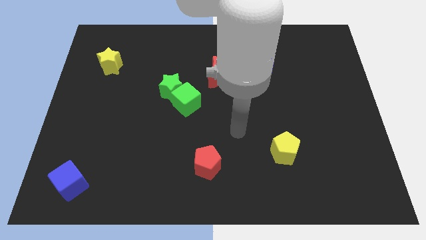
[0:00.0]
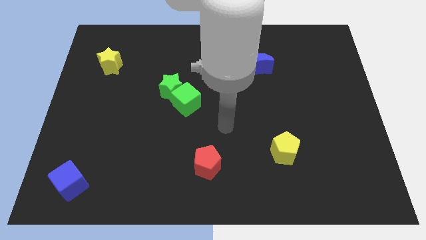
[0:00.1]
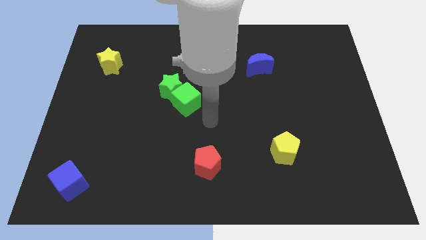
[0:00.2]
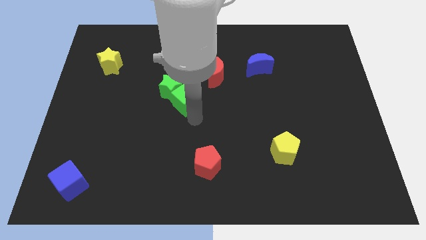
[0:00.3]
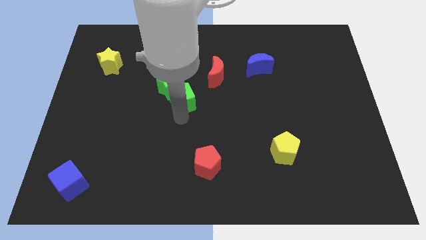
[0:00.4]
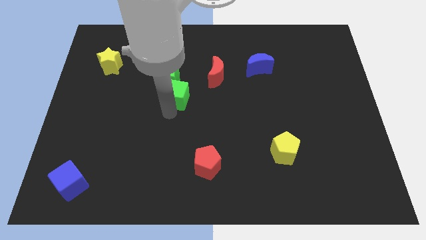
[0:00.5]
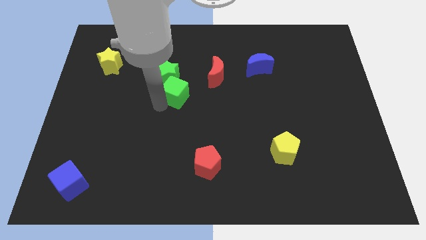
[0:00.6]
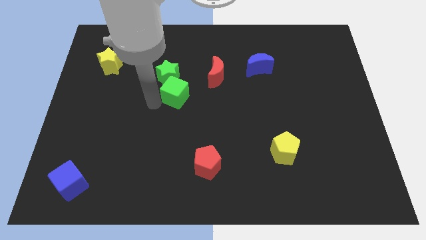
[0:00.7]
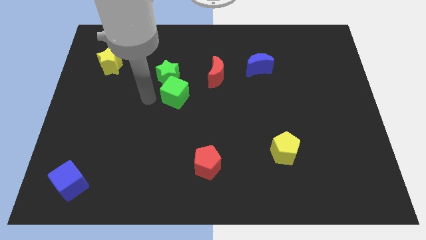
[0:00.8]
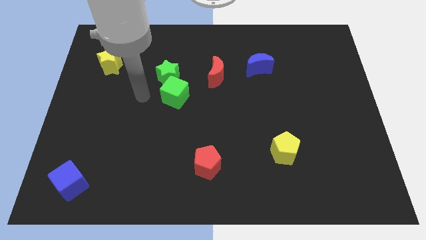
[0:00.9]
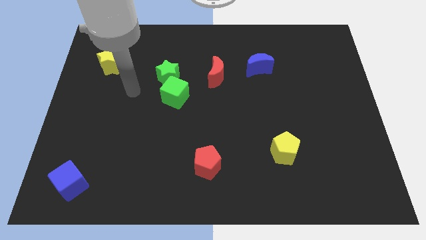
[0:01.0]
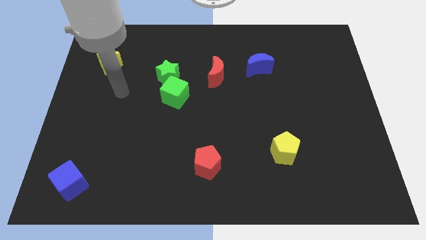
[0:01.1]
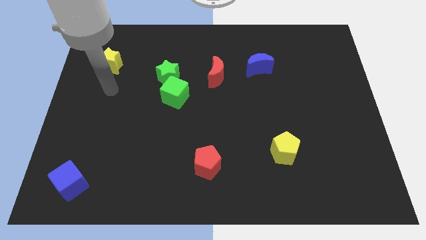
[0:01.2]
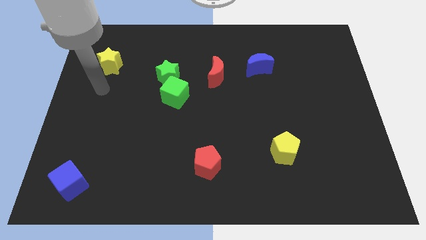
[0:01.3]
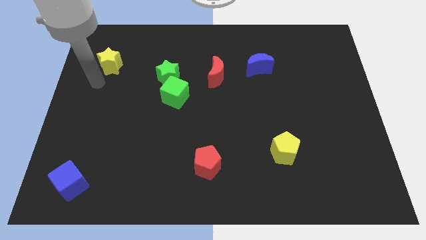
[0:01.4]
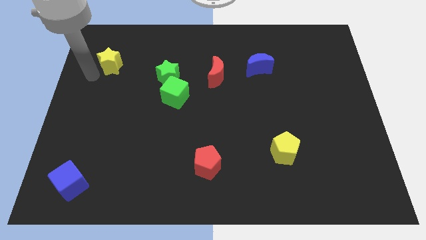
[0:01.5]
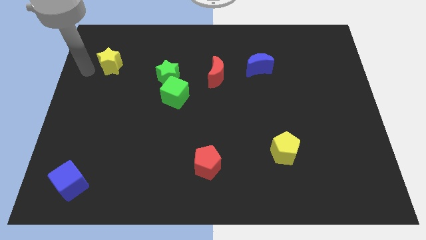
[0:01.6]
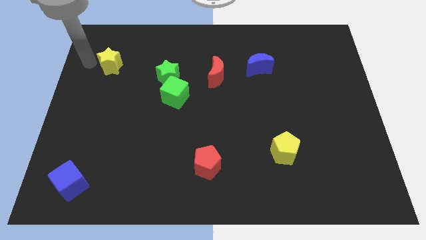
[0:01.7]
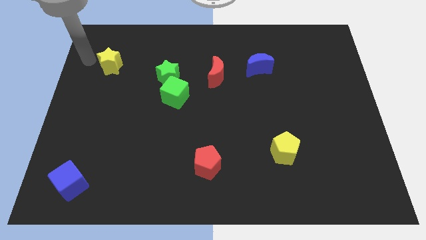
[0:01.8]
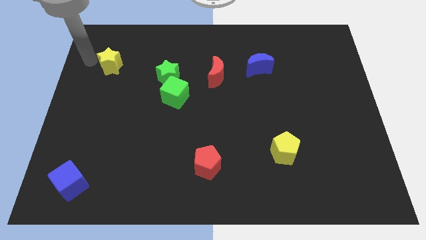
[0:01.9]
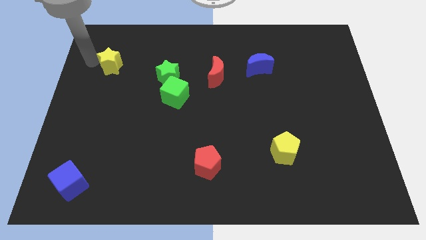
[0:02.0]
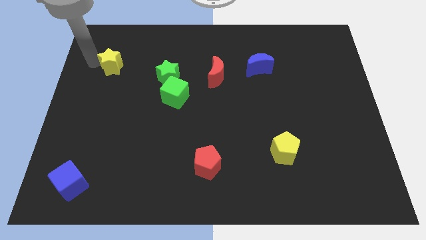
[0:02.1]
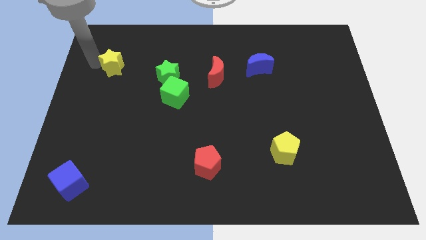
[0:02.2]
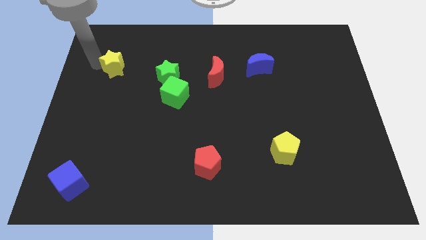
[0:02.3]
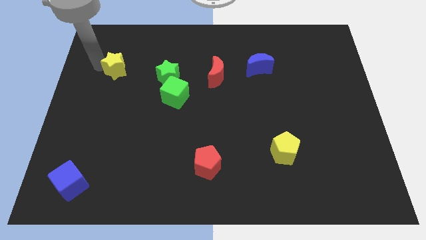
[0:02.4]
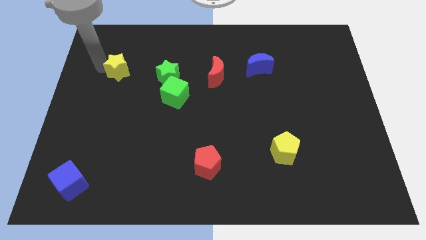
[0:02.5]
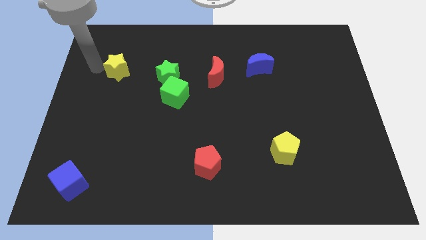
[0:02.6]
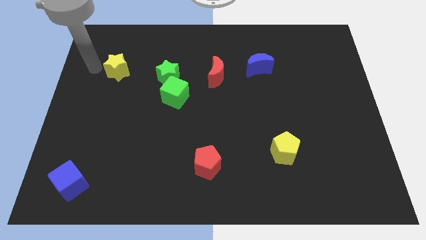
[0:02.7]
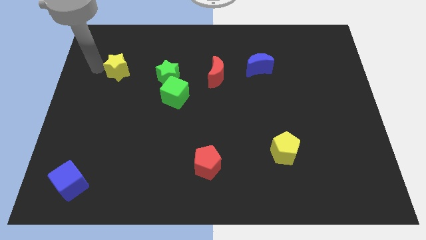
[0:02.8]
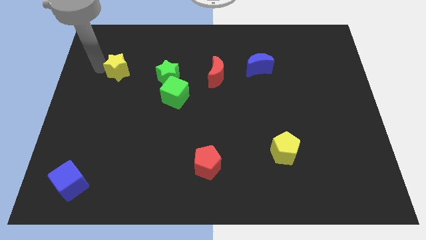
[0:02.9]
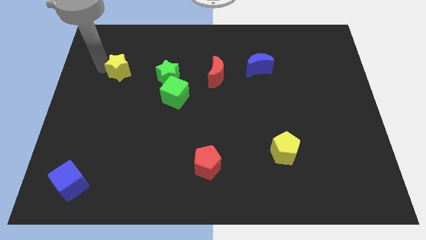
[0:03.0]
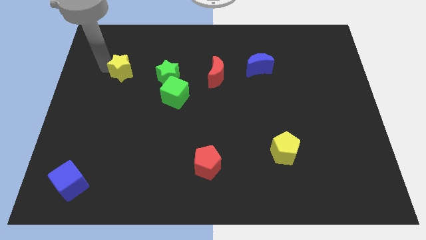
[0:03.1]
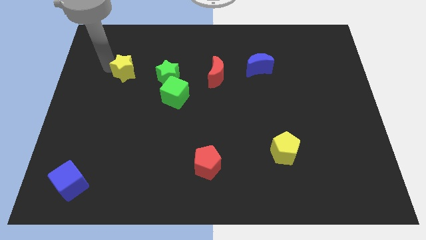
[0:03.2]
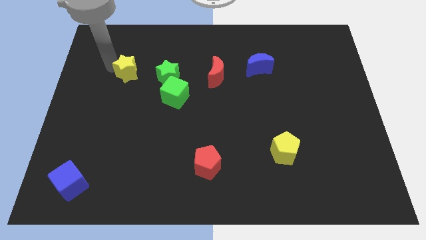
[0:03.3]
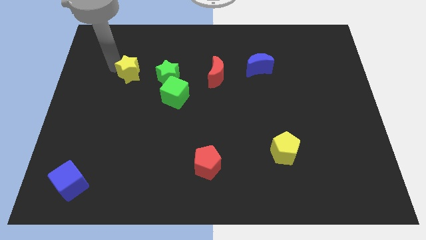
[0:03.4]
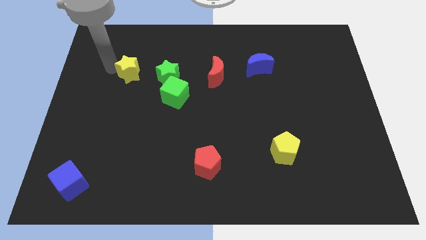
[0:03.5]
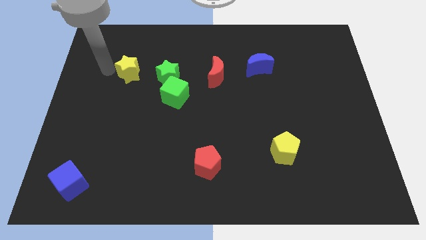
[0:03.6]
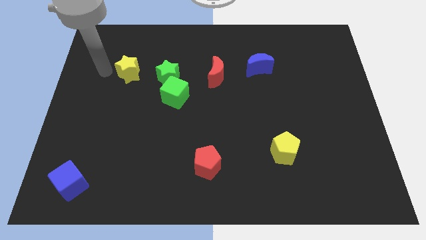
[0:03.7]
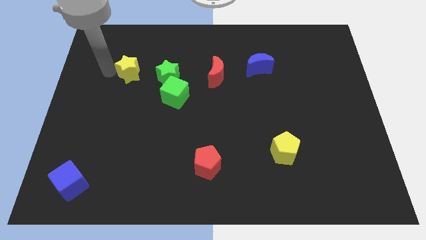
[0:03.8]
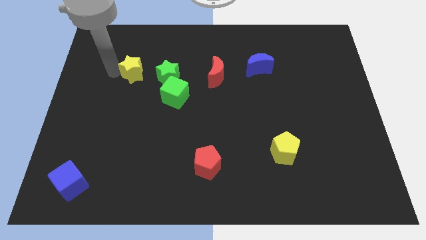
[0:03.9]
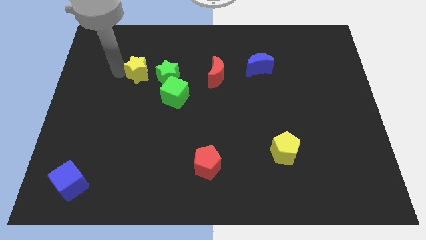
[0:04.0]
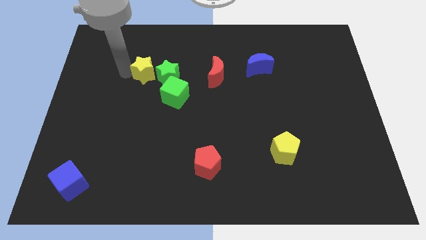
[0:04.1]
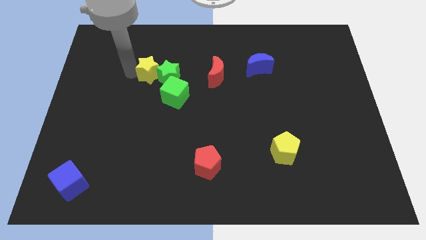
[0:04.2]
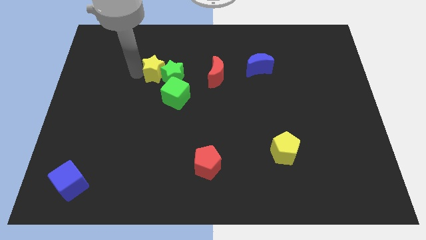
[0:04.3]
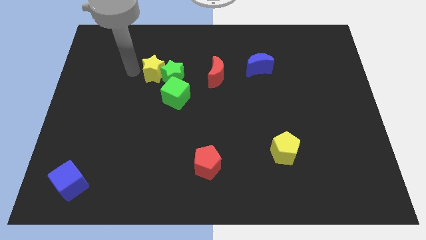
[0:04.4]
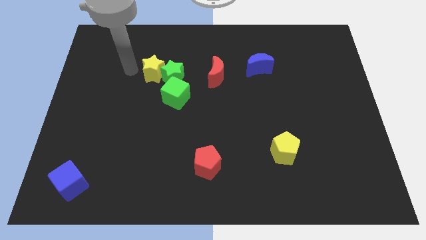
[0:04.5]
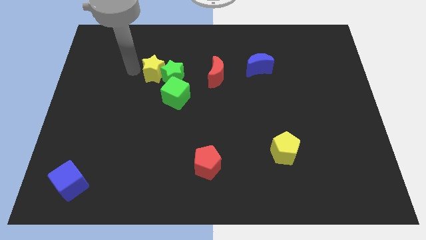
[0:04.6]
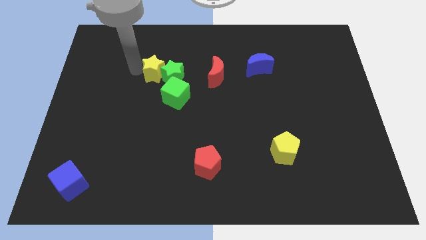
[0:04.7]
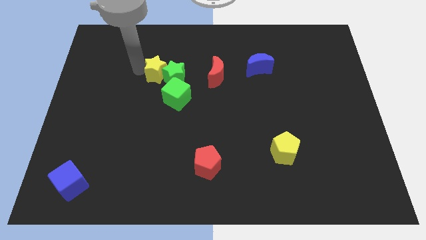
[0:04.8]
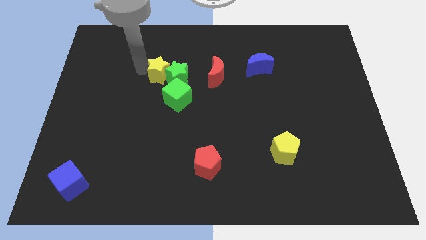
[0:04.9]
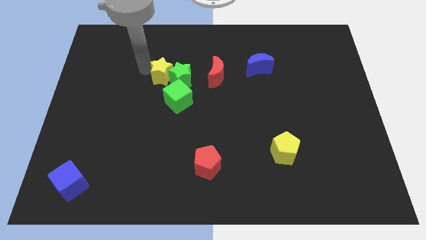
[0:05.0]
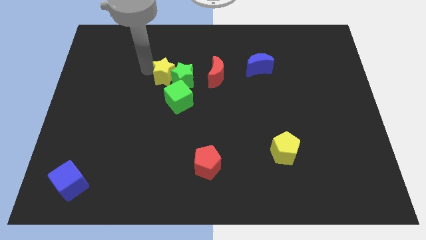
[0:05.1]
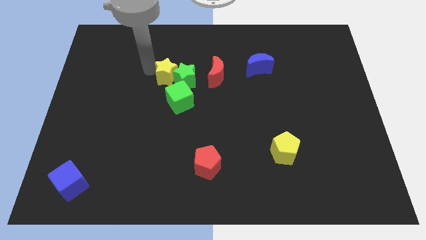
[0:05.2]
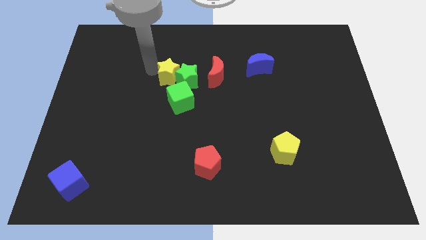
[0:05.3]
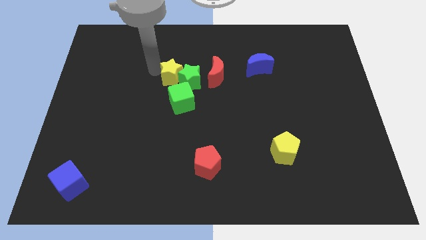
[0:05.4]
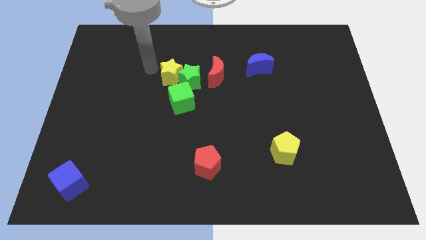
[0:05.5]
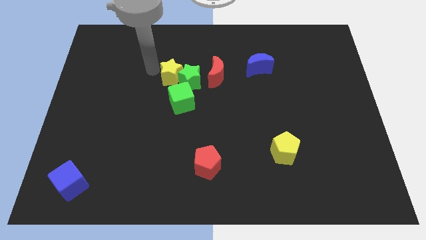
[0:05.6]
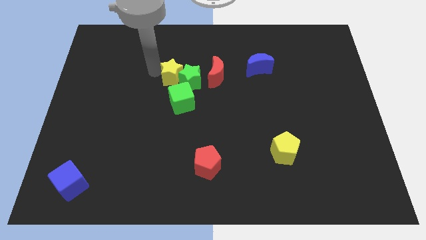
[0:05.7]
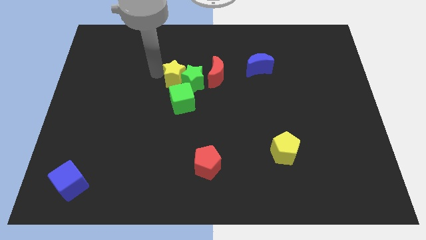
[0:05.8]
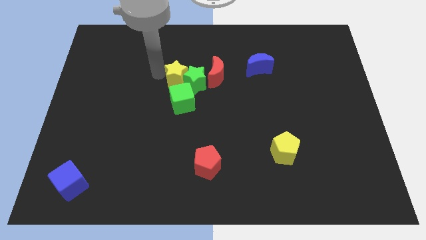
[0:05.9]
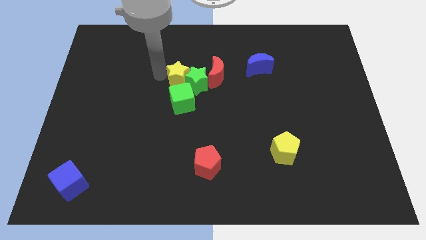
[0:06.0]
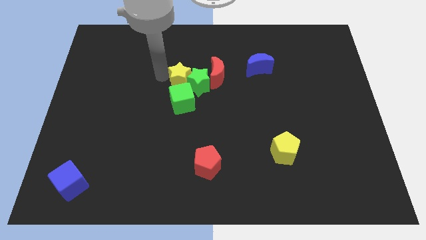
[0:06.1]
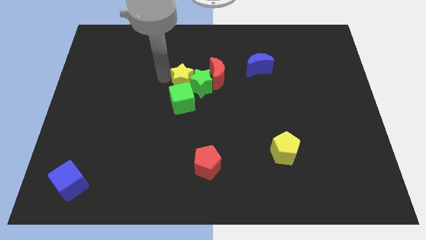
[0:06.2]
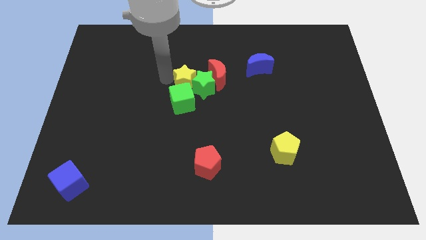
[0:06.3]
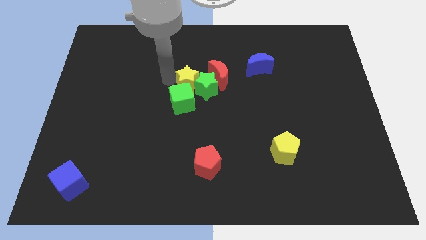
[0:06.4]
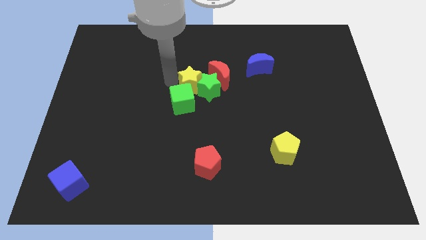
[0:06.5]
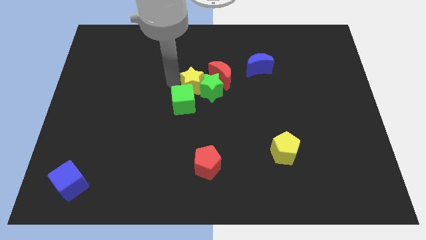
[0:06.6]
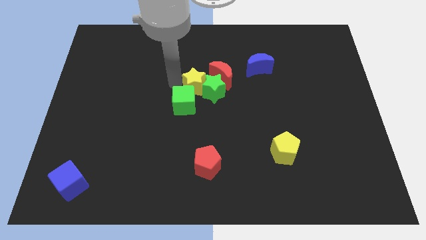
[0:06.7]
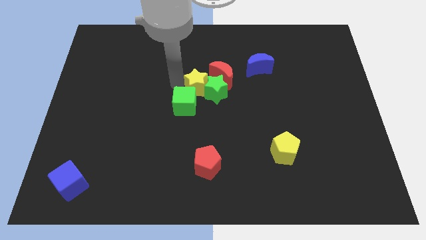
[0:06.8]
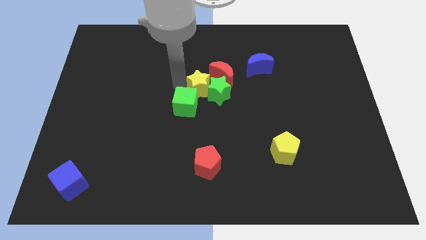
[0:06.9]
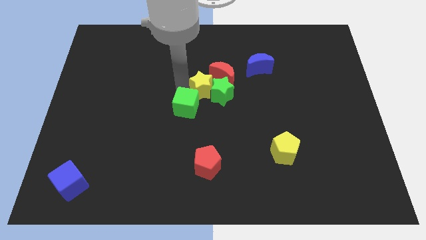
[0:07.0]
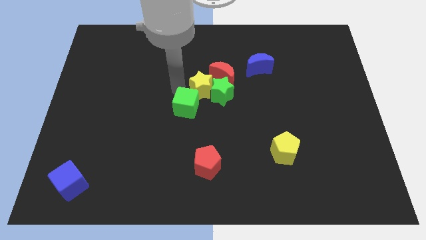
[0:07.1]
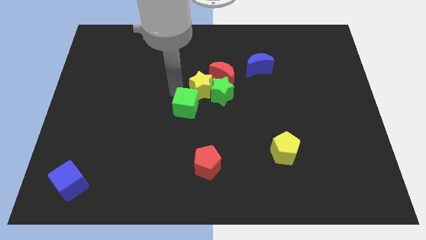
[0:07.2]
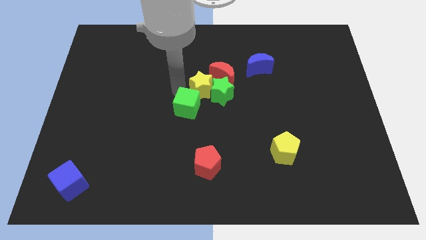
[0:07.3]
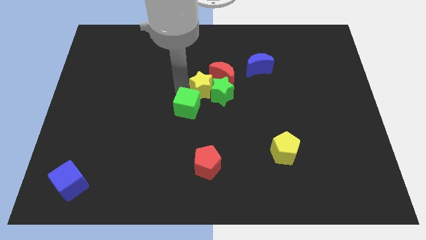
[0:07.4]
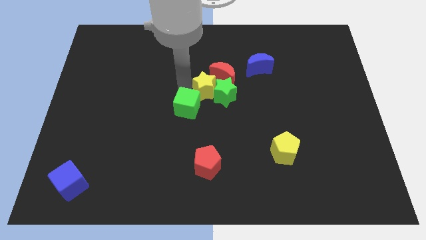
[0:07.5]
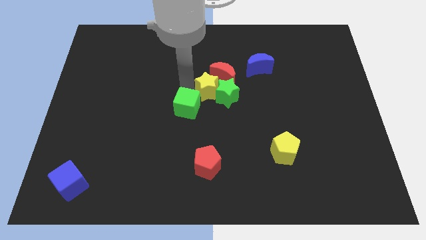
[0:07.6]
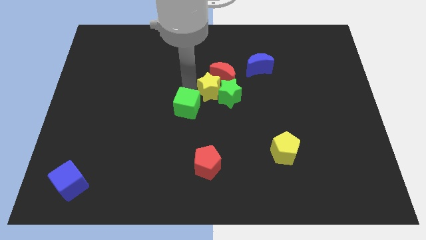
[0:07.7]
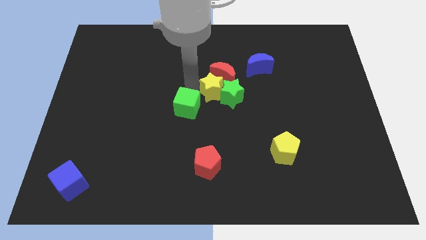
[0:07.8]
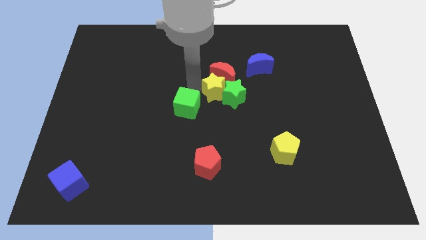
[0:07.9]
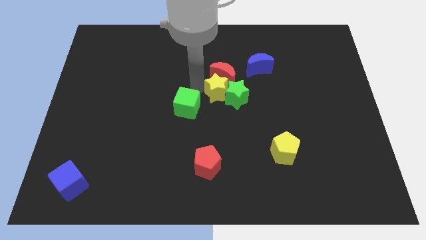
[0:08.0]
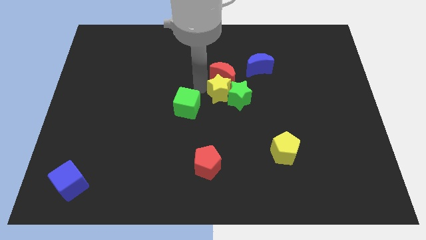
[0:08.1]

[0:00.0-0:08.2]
put the yellow star to the bottom left of the blue moon
